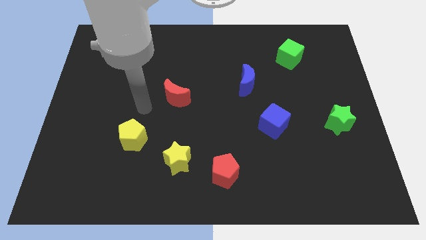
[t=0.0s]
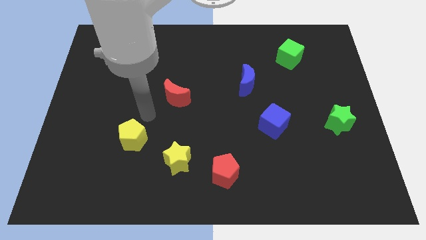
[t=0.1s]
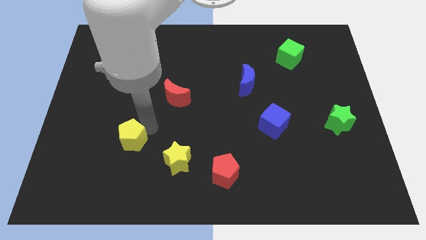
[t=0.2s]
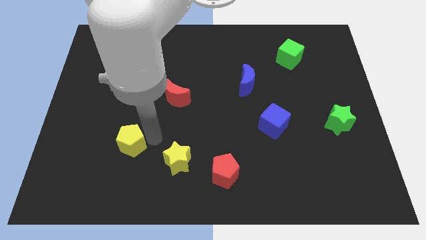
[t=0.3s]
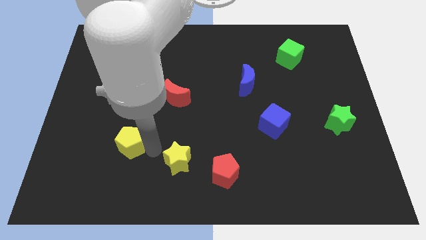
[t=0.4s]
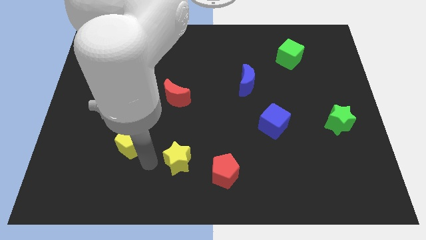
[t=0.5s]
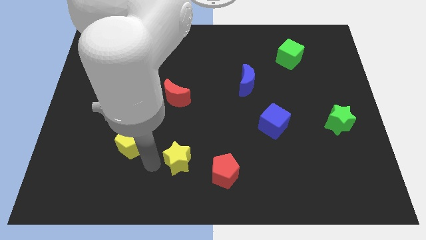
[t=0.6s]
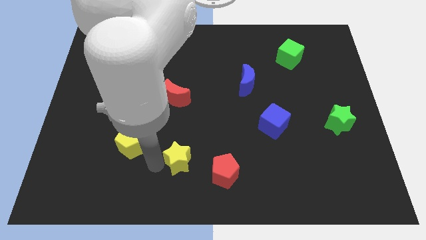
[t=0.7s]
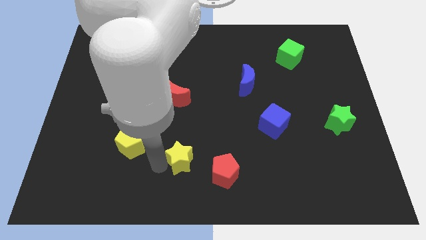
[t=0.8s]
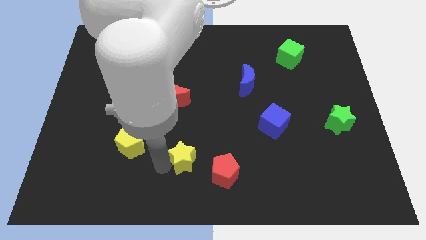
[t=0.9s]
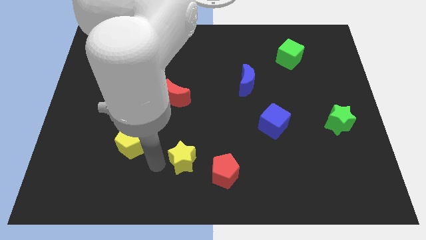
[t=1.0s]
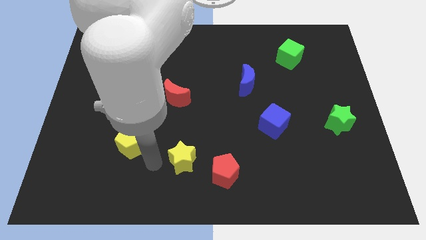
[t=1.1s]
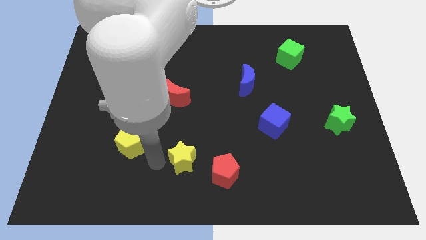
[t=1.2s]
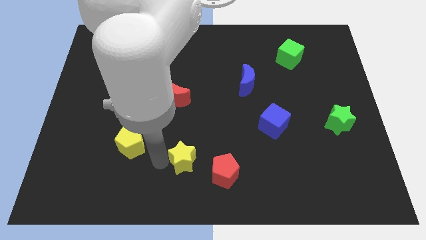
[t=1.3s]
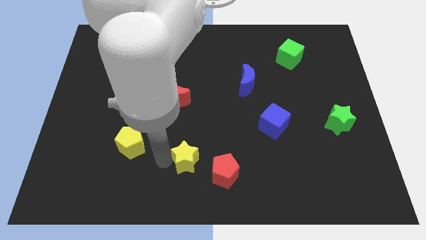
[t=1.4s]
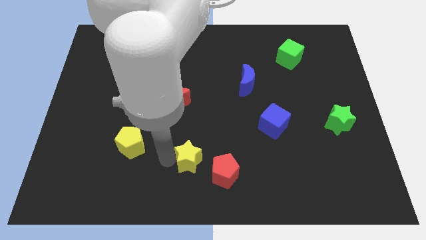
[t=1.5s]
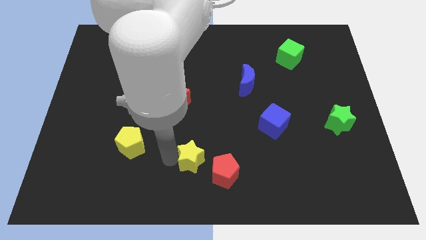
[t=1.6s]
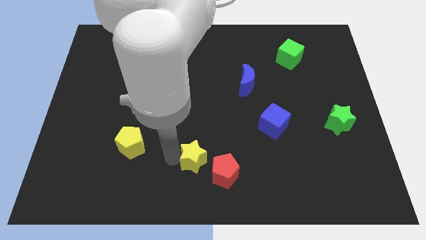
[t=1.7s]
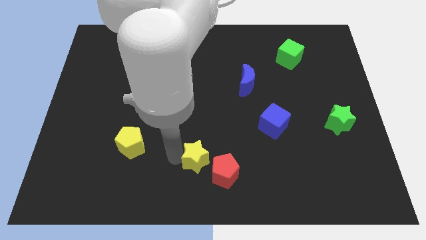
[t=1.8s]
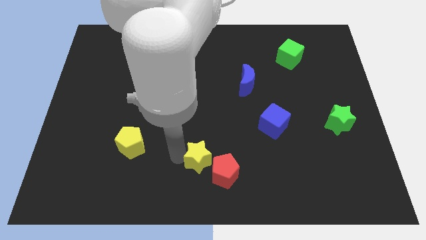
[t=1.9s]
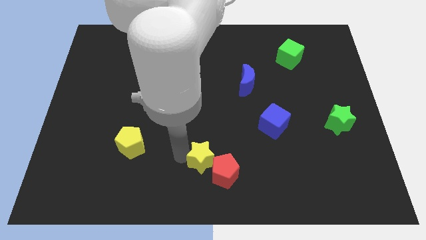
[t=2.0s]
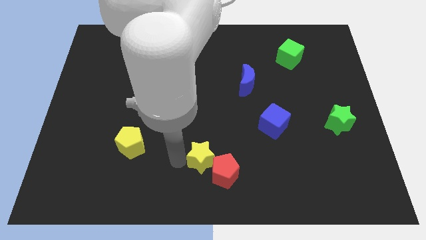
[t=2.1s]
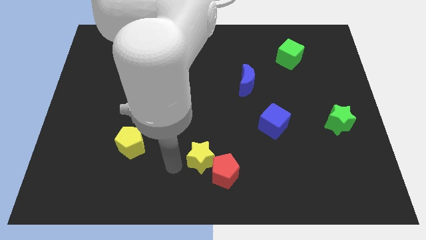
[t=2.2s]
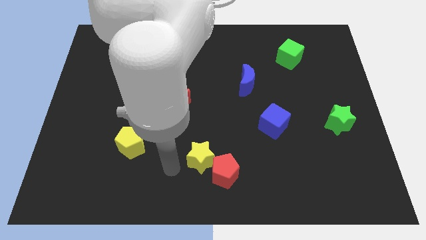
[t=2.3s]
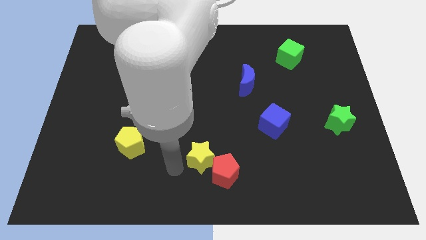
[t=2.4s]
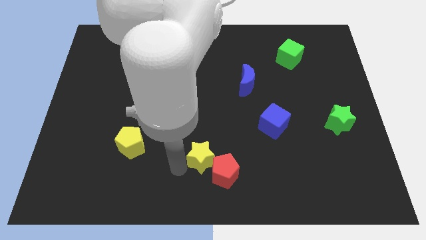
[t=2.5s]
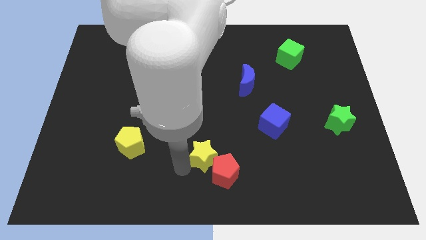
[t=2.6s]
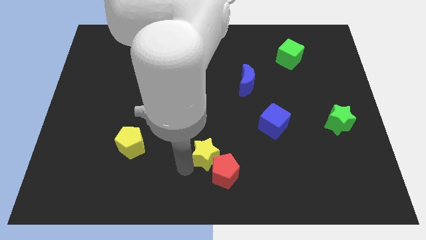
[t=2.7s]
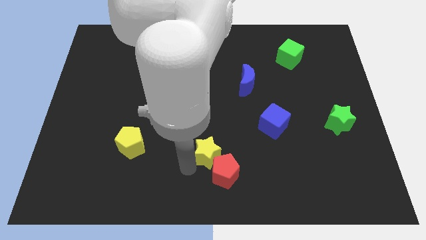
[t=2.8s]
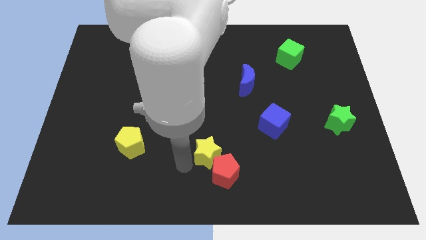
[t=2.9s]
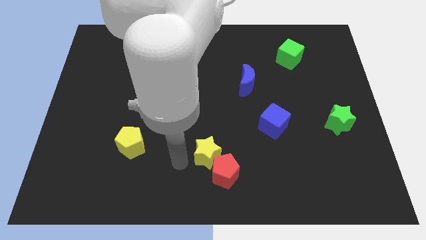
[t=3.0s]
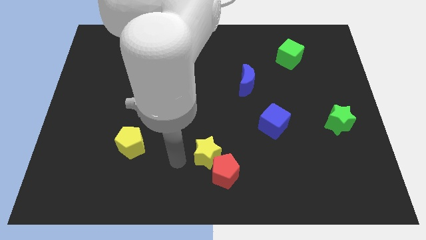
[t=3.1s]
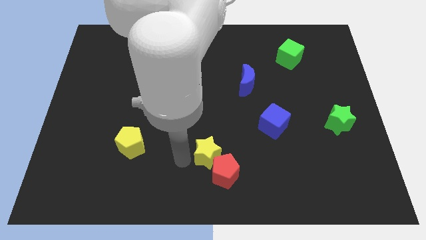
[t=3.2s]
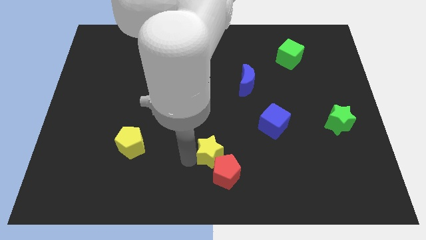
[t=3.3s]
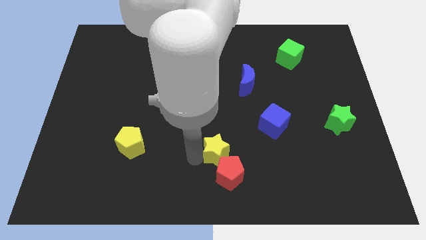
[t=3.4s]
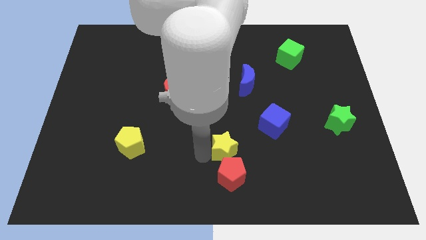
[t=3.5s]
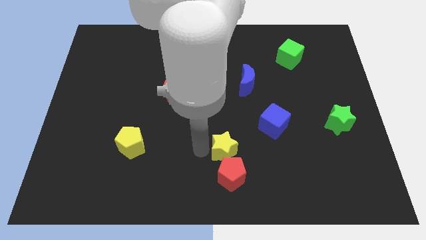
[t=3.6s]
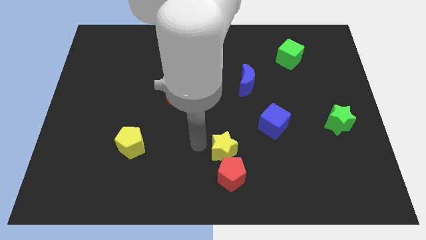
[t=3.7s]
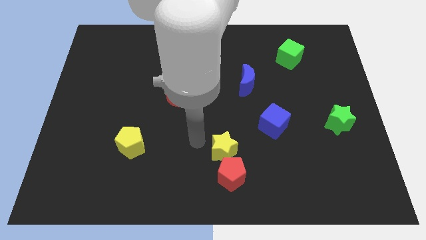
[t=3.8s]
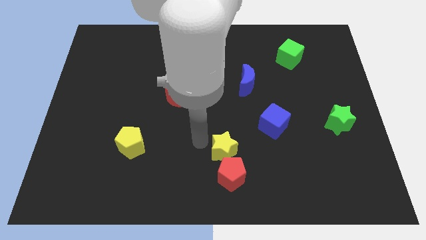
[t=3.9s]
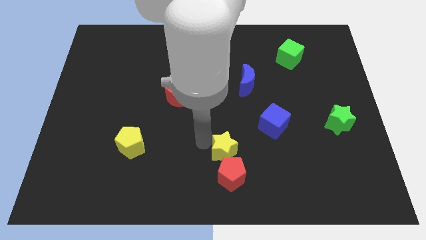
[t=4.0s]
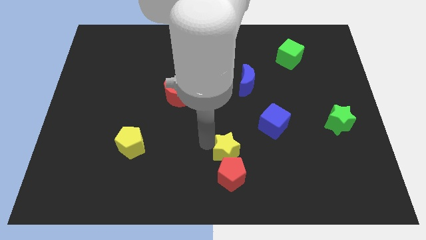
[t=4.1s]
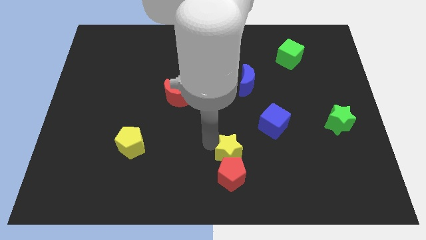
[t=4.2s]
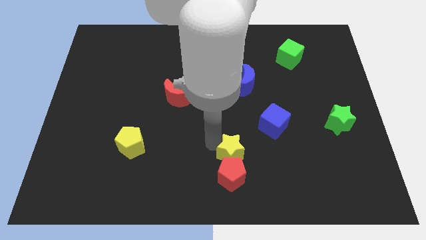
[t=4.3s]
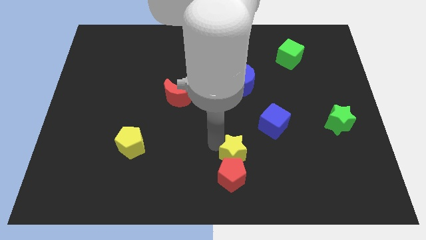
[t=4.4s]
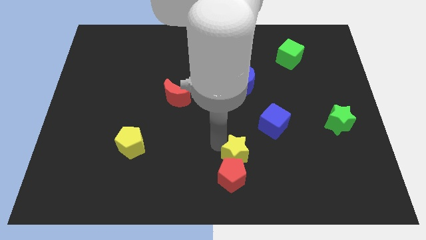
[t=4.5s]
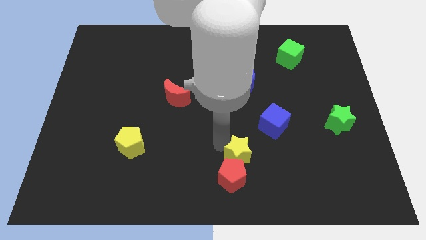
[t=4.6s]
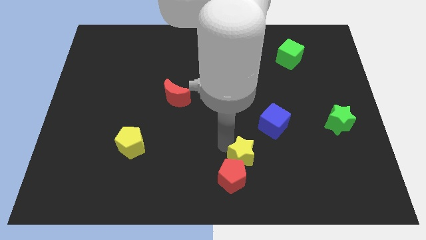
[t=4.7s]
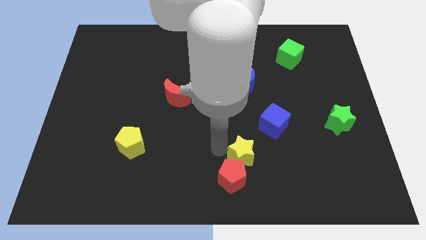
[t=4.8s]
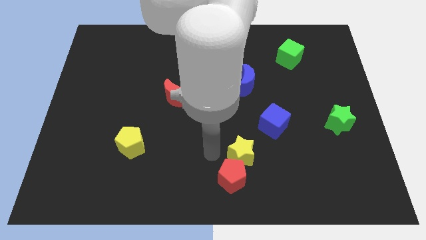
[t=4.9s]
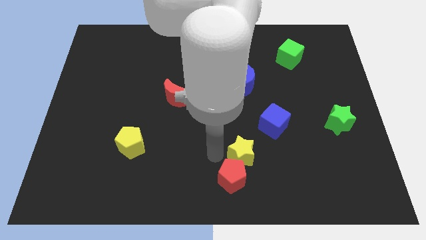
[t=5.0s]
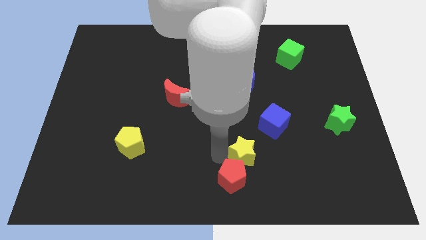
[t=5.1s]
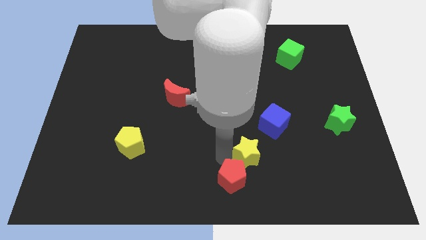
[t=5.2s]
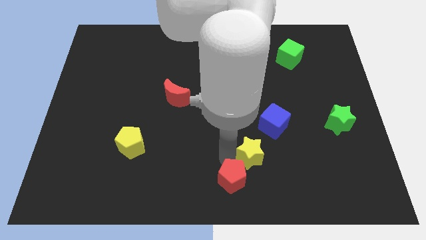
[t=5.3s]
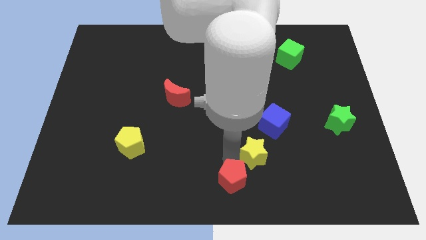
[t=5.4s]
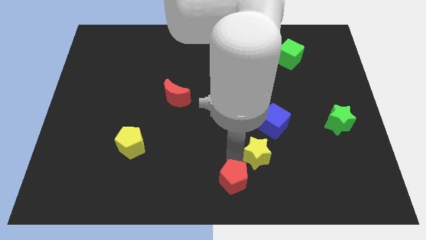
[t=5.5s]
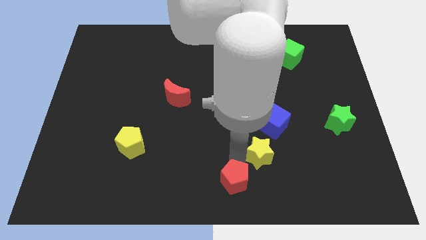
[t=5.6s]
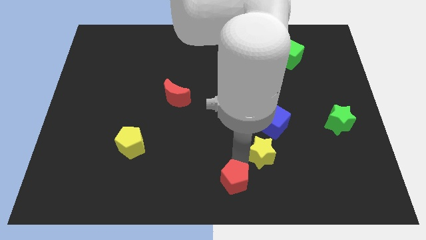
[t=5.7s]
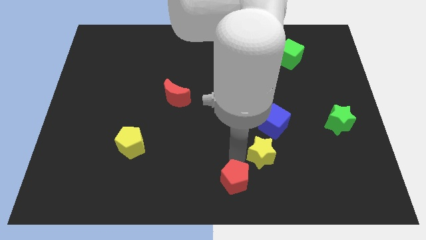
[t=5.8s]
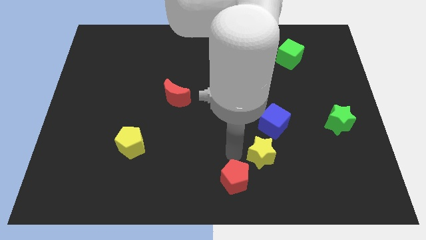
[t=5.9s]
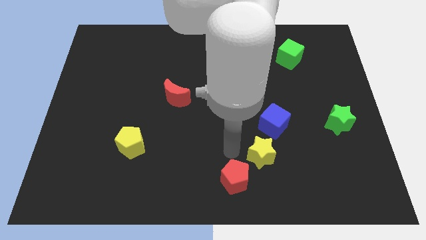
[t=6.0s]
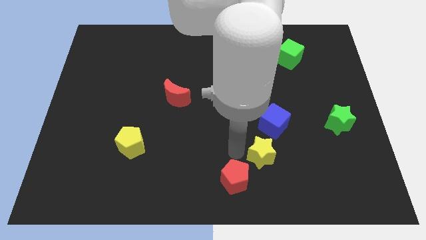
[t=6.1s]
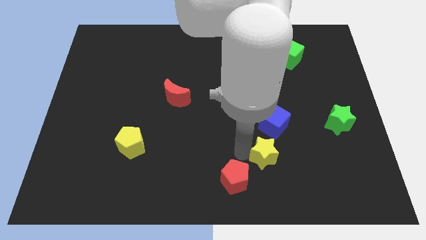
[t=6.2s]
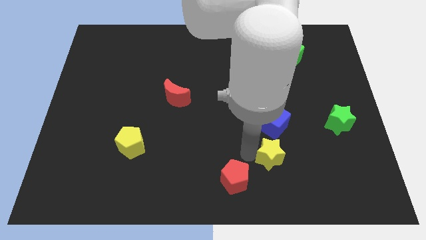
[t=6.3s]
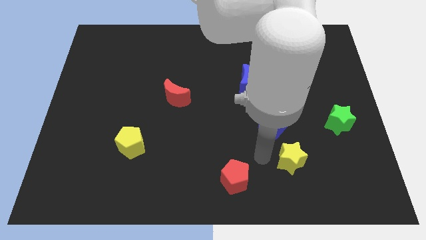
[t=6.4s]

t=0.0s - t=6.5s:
push the yellow star right

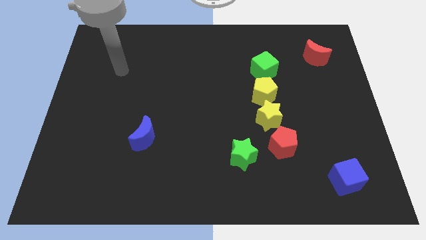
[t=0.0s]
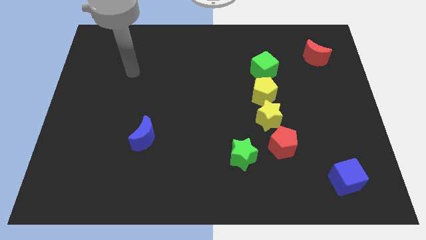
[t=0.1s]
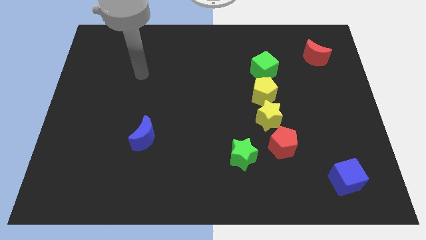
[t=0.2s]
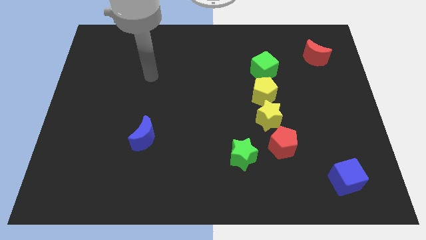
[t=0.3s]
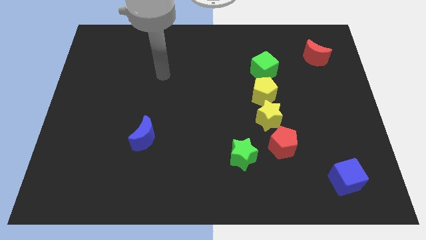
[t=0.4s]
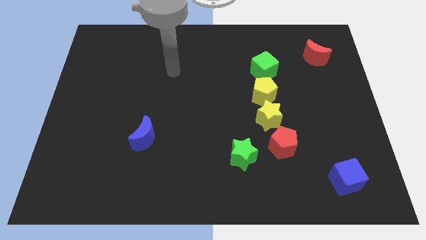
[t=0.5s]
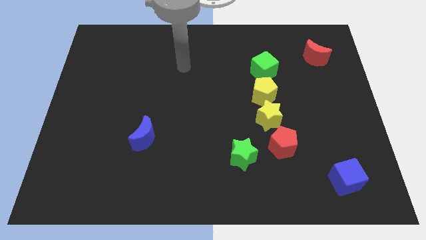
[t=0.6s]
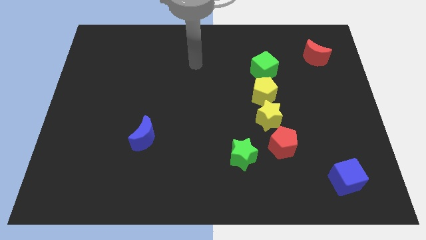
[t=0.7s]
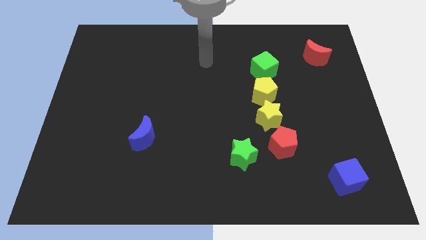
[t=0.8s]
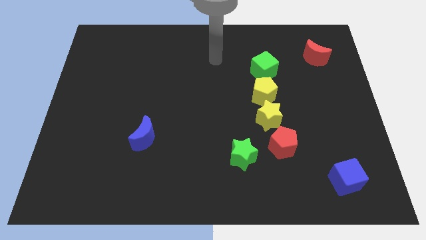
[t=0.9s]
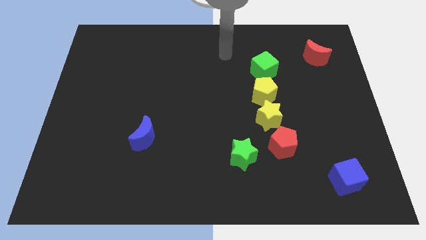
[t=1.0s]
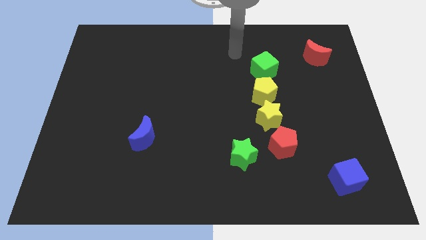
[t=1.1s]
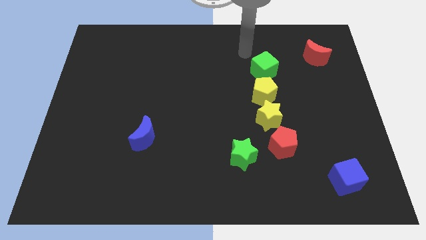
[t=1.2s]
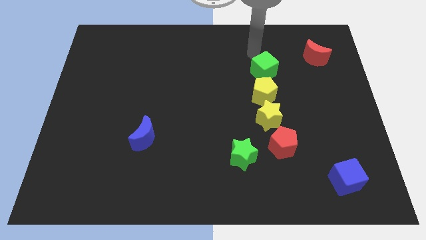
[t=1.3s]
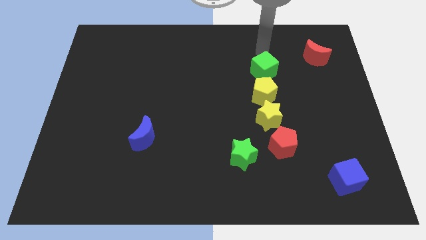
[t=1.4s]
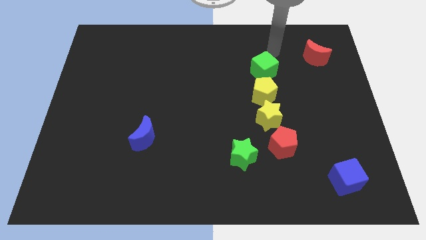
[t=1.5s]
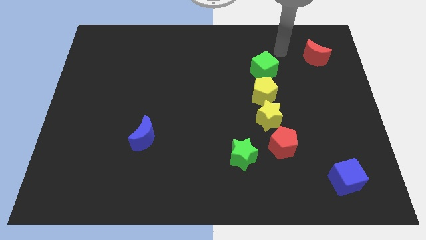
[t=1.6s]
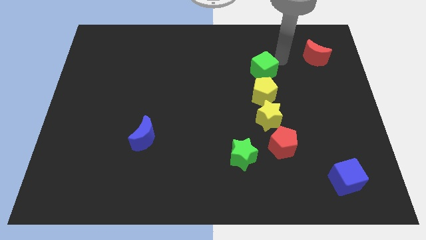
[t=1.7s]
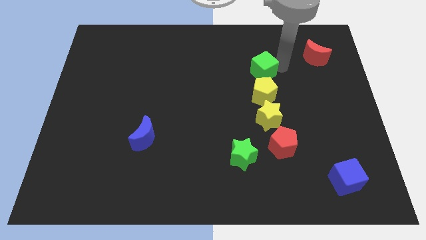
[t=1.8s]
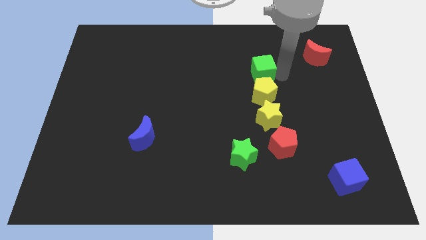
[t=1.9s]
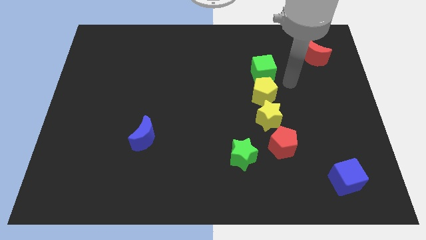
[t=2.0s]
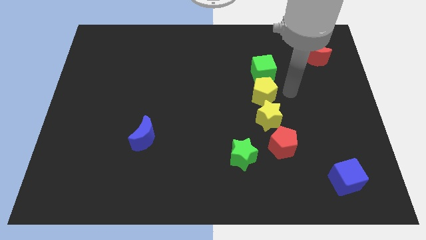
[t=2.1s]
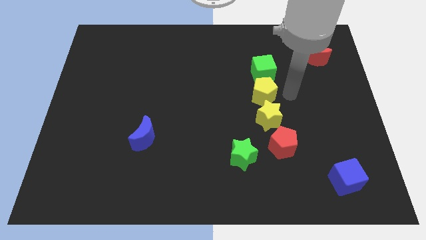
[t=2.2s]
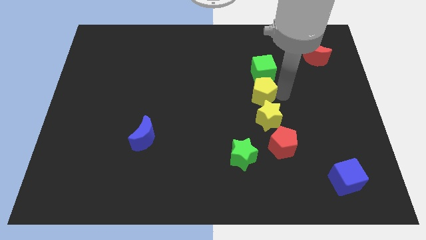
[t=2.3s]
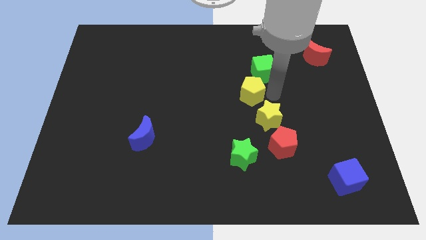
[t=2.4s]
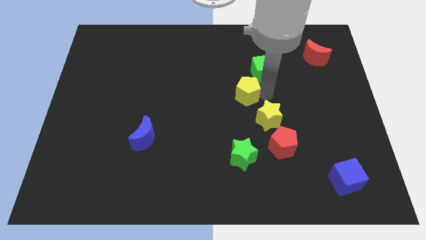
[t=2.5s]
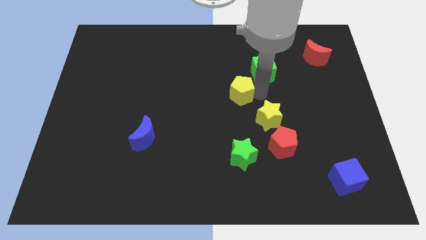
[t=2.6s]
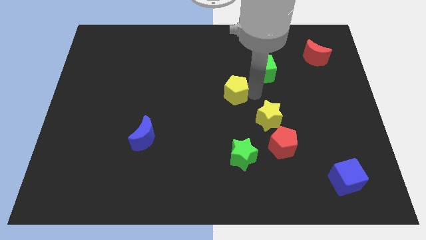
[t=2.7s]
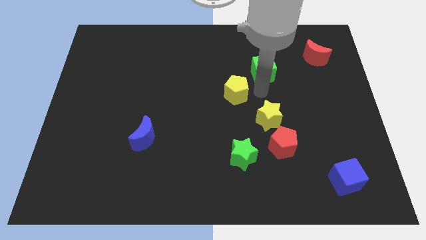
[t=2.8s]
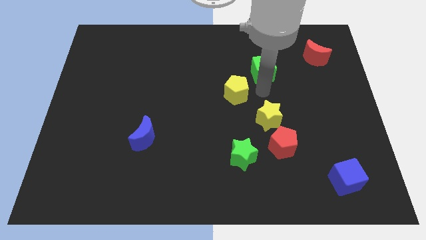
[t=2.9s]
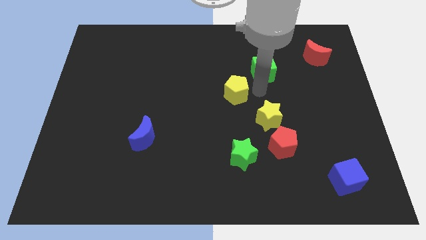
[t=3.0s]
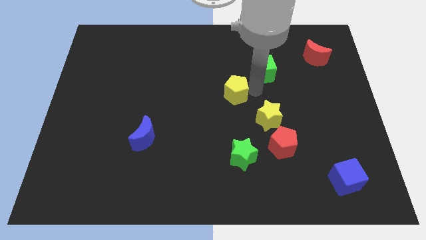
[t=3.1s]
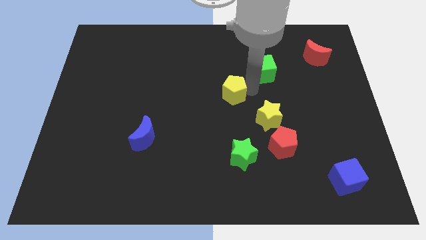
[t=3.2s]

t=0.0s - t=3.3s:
push the yellow pentagon to the left a little bit
